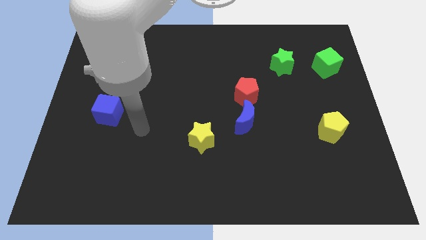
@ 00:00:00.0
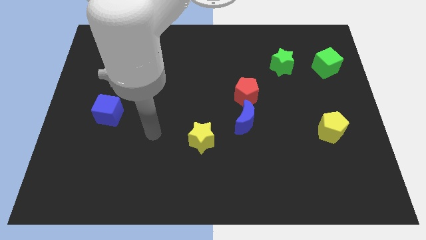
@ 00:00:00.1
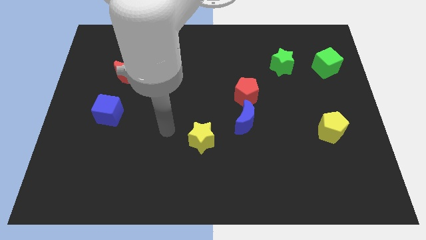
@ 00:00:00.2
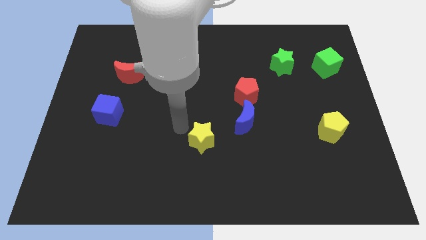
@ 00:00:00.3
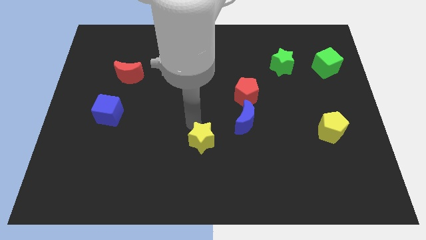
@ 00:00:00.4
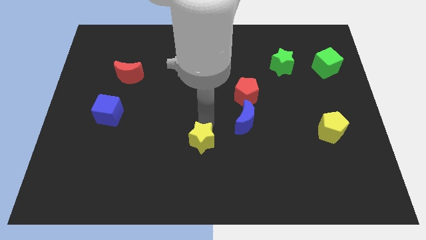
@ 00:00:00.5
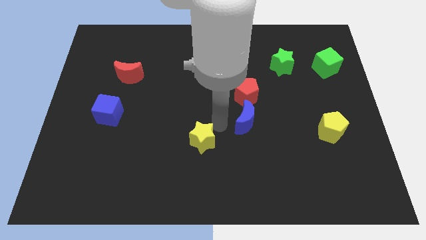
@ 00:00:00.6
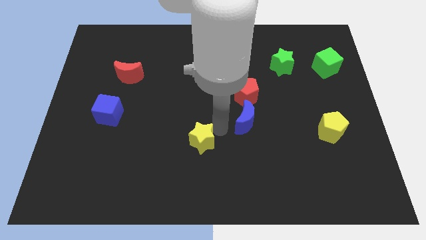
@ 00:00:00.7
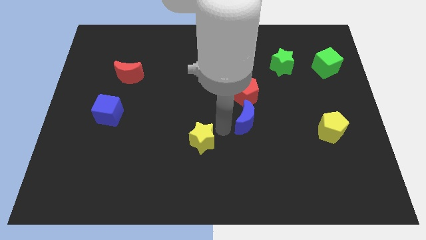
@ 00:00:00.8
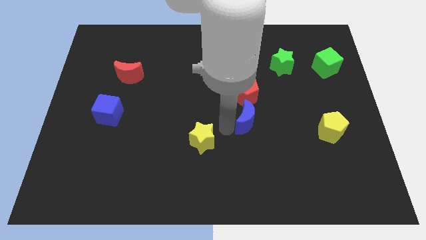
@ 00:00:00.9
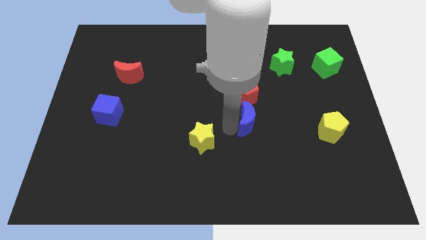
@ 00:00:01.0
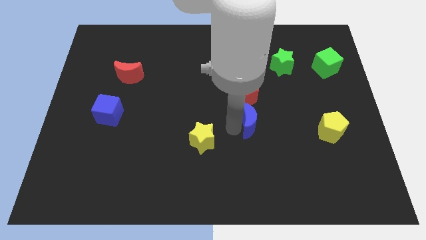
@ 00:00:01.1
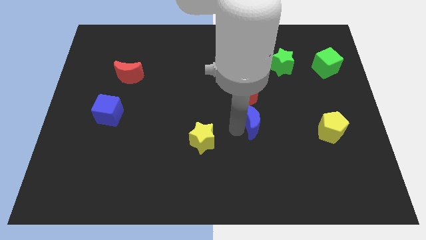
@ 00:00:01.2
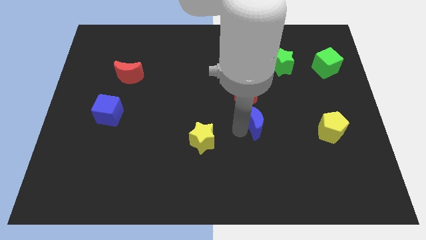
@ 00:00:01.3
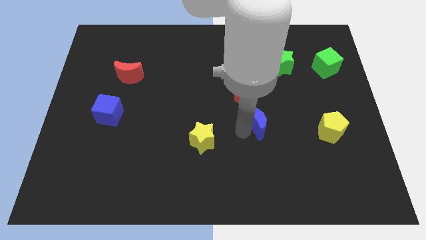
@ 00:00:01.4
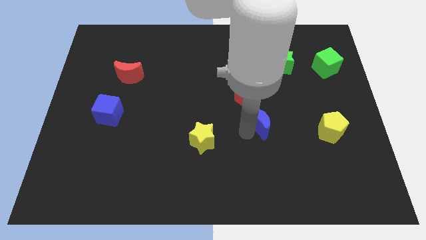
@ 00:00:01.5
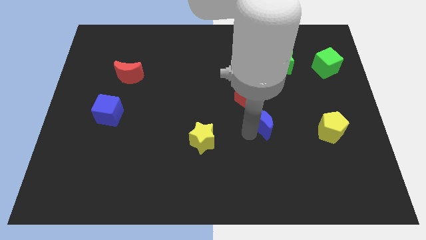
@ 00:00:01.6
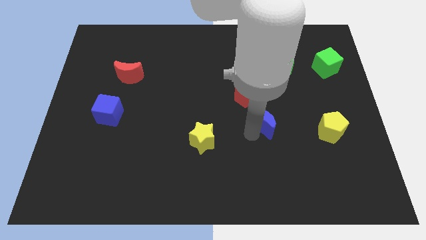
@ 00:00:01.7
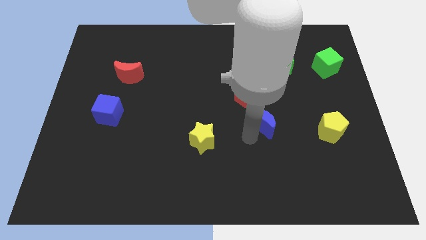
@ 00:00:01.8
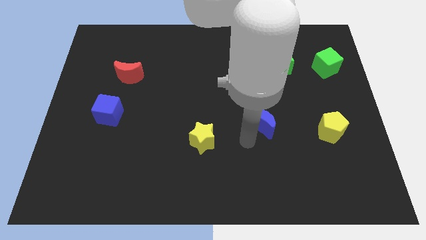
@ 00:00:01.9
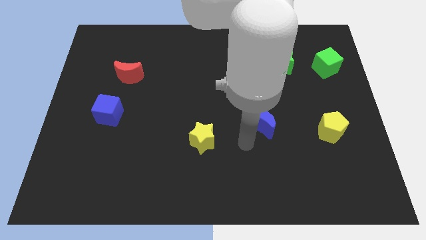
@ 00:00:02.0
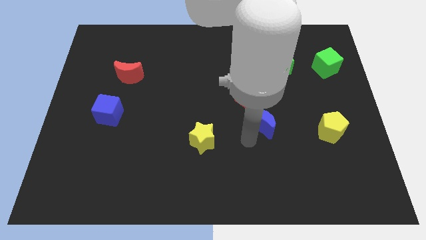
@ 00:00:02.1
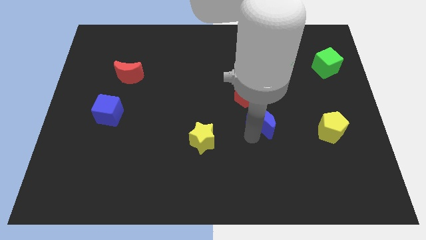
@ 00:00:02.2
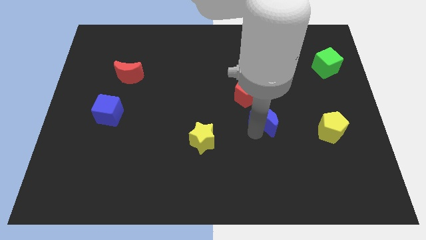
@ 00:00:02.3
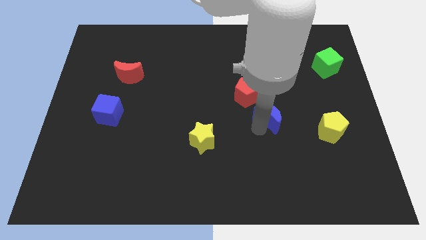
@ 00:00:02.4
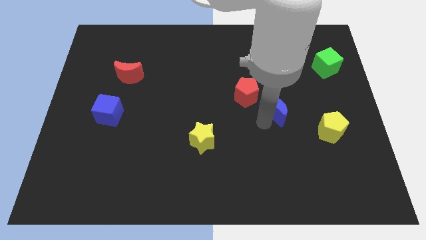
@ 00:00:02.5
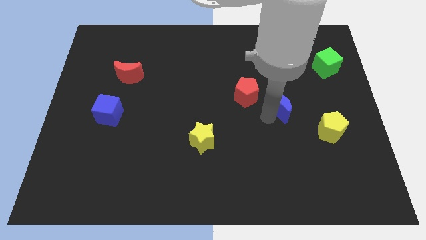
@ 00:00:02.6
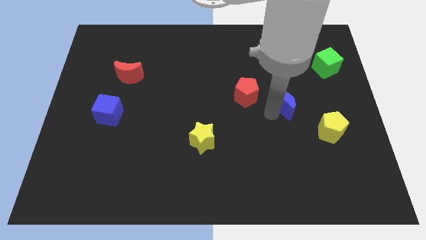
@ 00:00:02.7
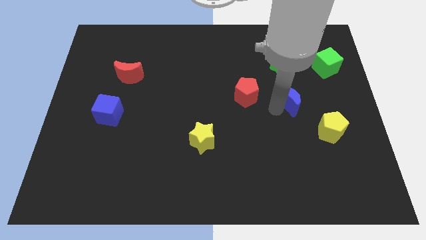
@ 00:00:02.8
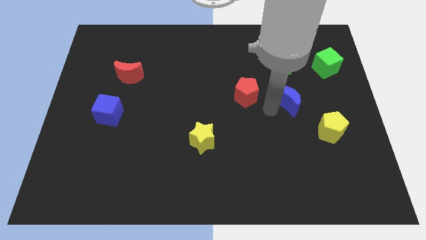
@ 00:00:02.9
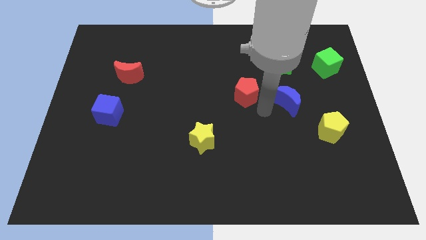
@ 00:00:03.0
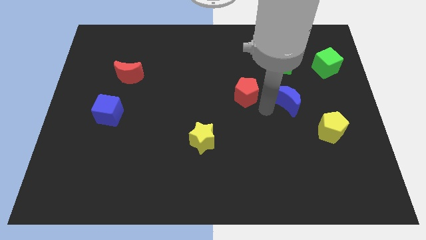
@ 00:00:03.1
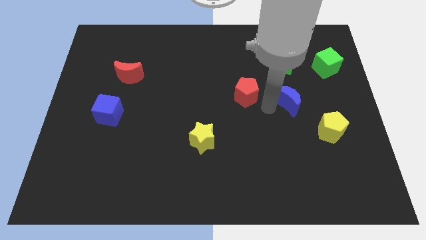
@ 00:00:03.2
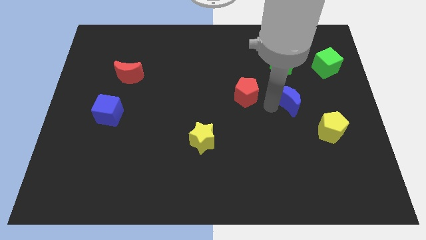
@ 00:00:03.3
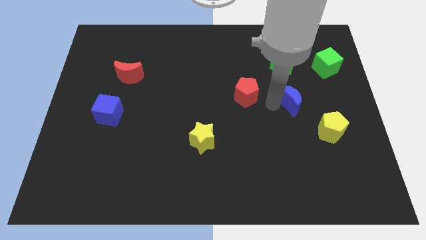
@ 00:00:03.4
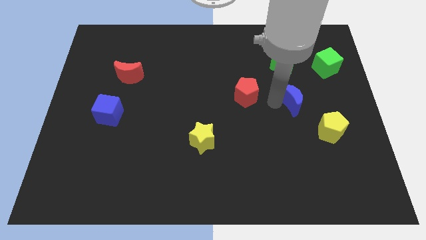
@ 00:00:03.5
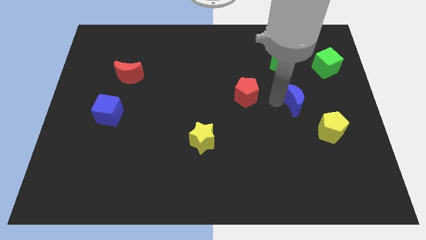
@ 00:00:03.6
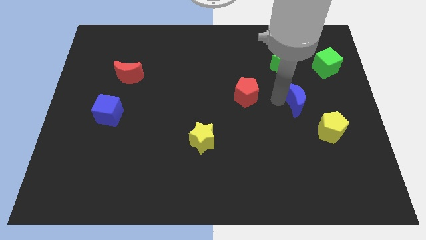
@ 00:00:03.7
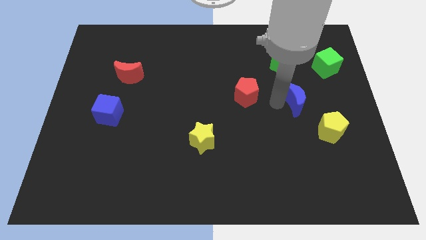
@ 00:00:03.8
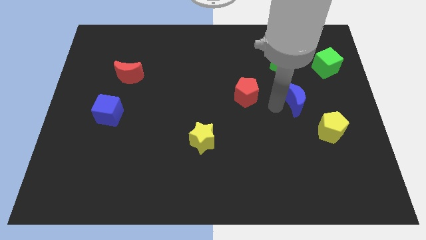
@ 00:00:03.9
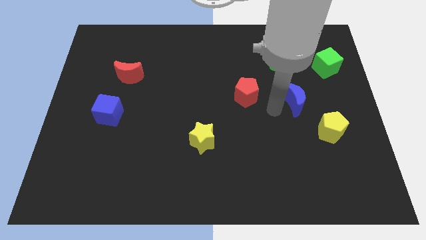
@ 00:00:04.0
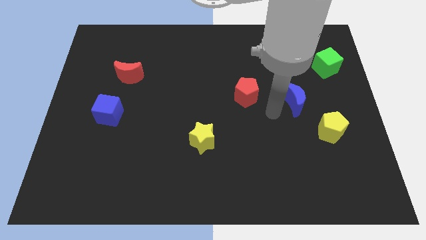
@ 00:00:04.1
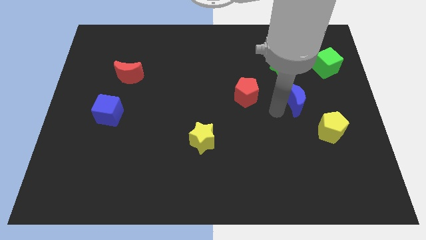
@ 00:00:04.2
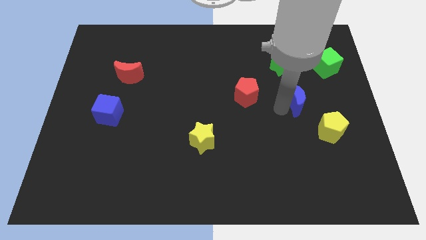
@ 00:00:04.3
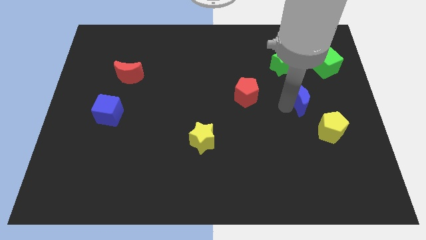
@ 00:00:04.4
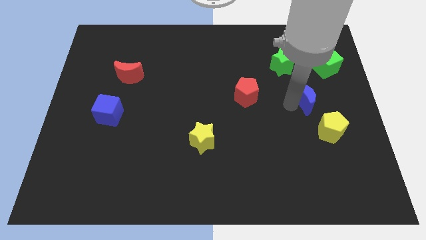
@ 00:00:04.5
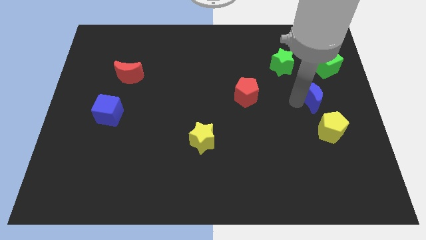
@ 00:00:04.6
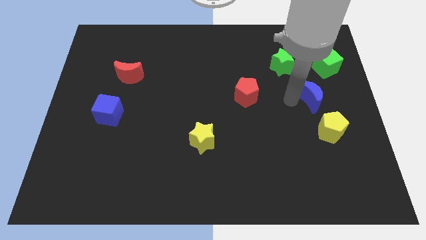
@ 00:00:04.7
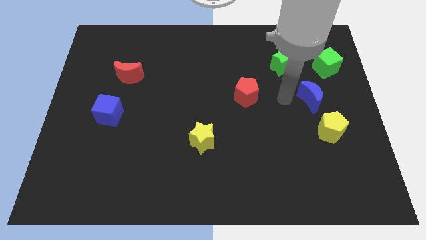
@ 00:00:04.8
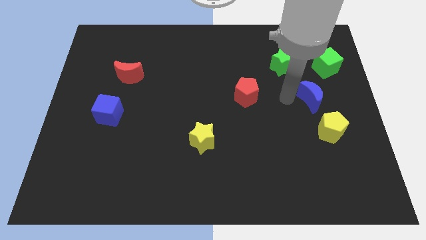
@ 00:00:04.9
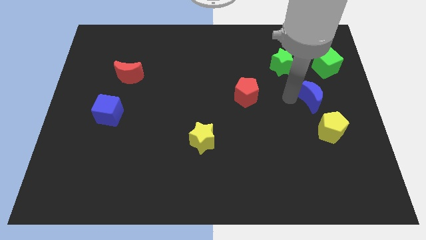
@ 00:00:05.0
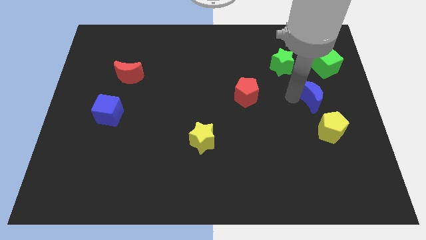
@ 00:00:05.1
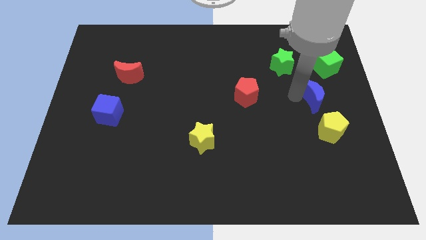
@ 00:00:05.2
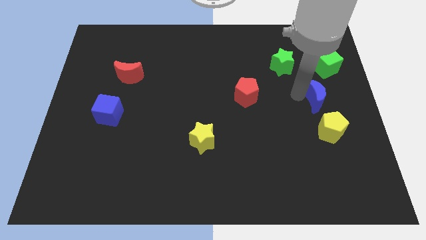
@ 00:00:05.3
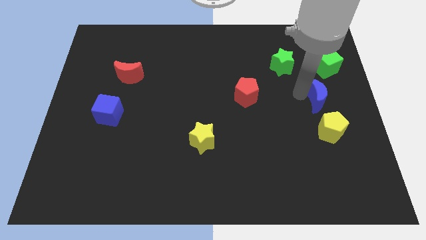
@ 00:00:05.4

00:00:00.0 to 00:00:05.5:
put the blue moon to the right side

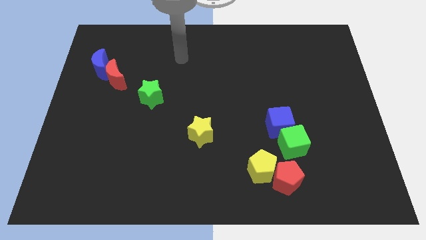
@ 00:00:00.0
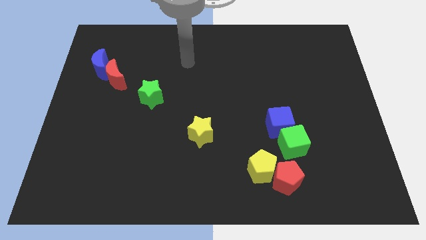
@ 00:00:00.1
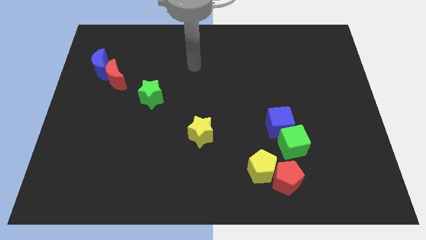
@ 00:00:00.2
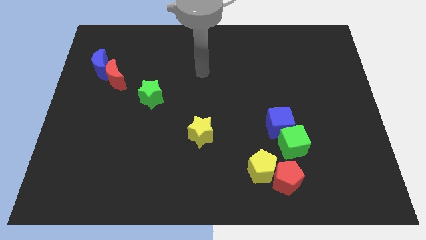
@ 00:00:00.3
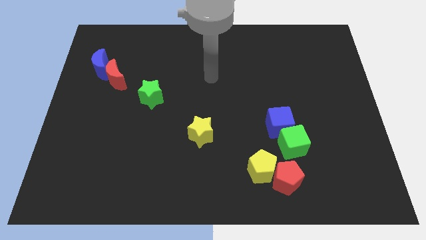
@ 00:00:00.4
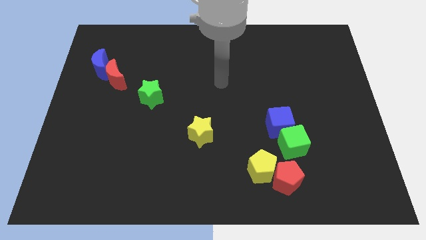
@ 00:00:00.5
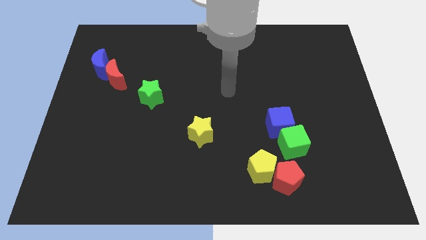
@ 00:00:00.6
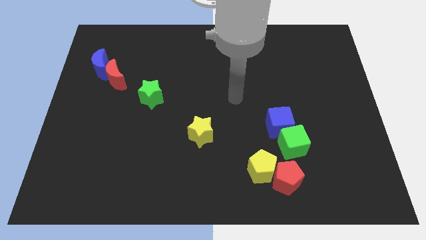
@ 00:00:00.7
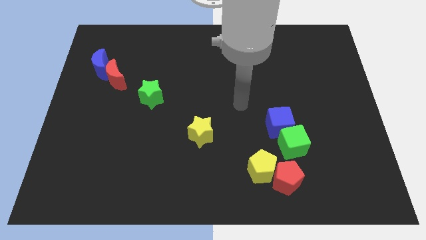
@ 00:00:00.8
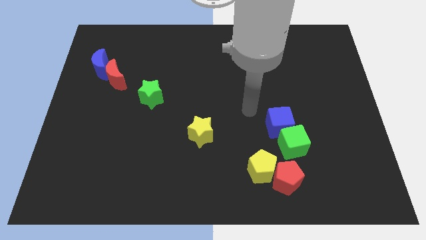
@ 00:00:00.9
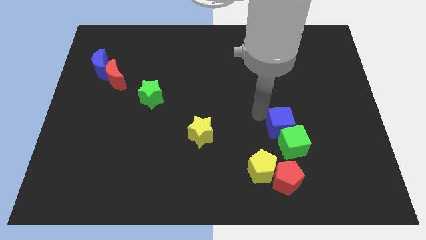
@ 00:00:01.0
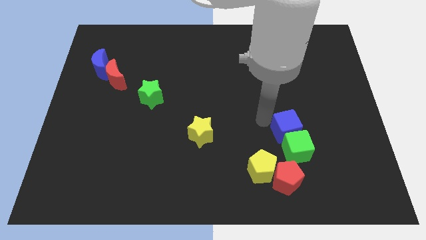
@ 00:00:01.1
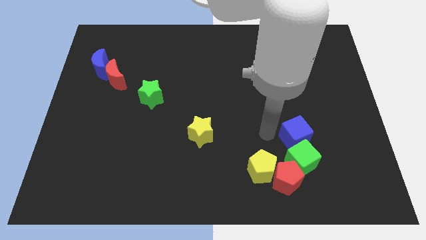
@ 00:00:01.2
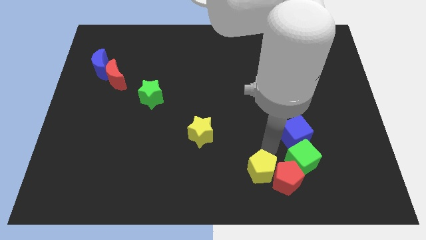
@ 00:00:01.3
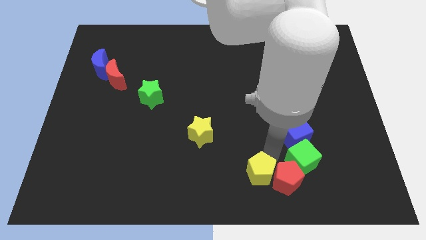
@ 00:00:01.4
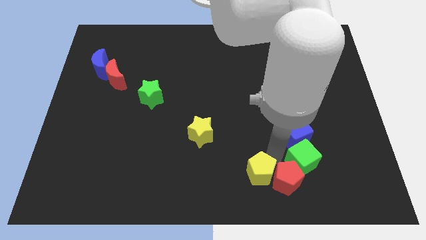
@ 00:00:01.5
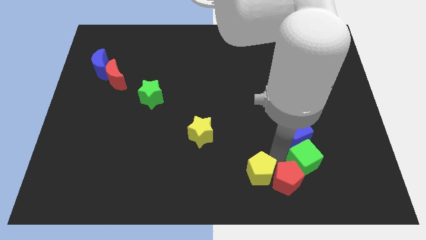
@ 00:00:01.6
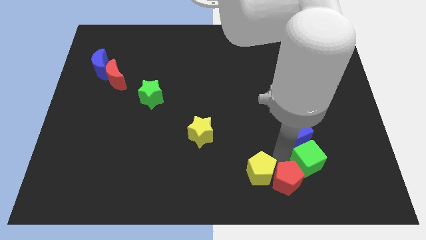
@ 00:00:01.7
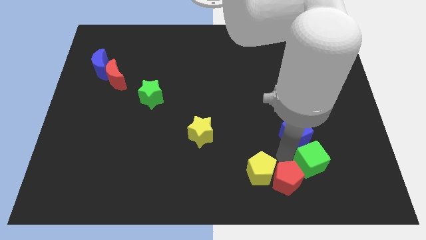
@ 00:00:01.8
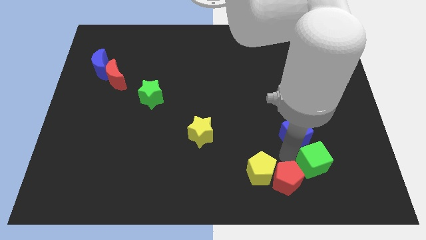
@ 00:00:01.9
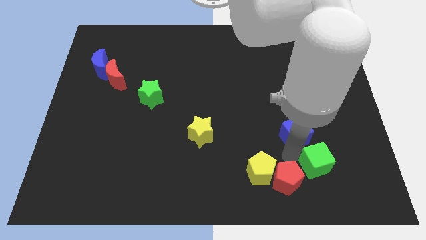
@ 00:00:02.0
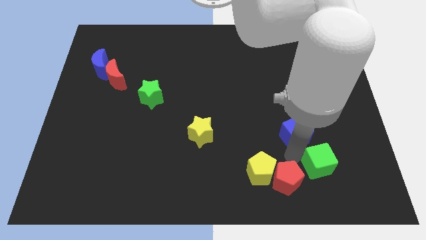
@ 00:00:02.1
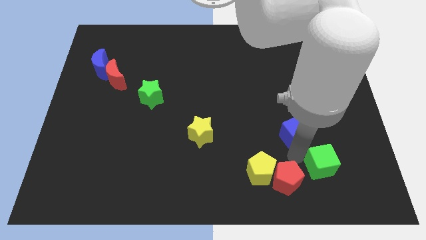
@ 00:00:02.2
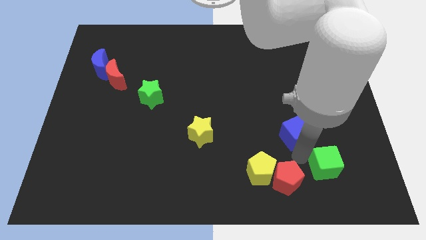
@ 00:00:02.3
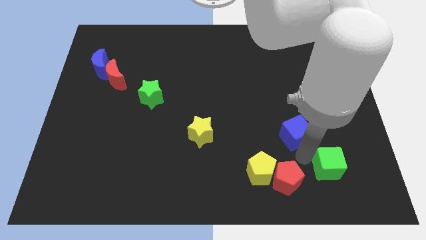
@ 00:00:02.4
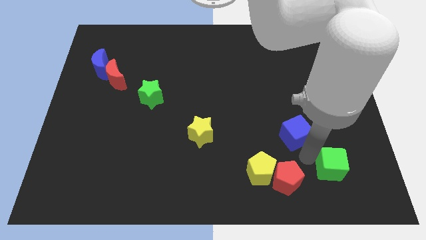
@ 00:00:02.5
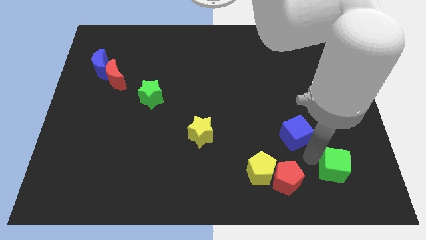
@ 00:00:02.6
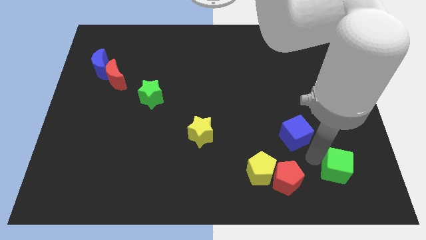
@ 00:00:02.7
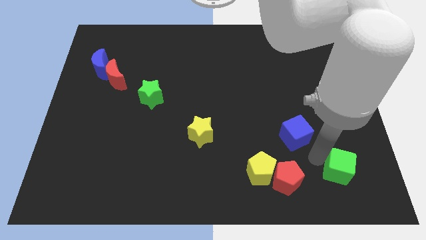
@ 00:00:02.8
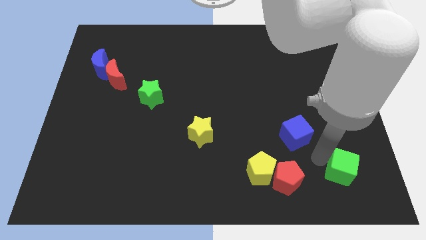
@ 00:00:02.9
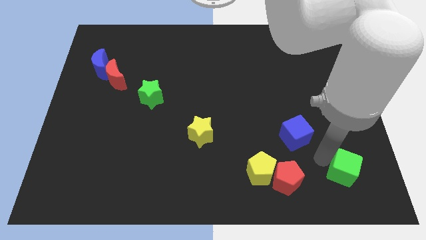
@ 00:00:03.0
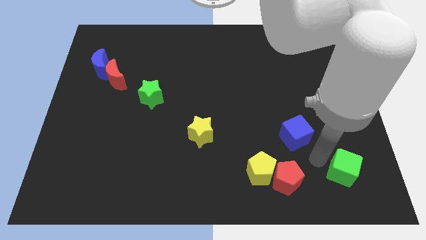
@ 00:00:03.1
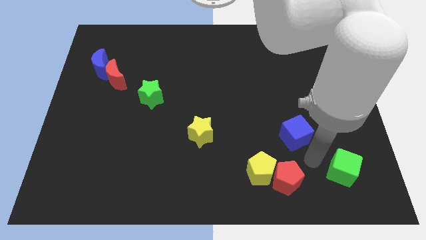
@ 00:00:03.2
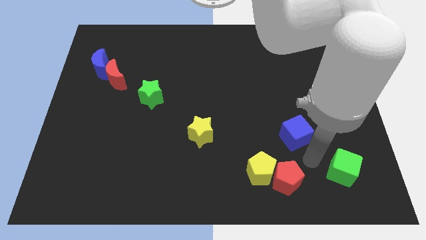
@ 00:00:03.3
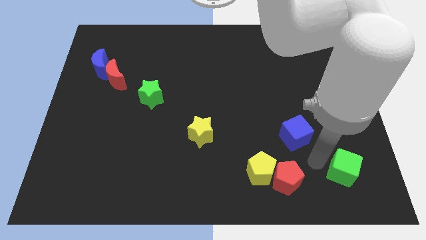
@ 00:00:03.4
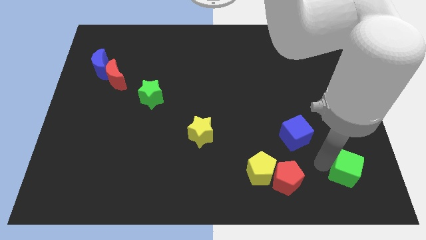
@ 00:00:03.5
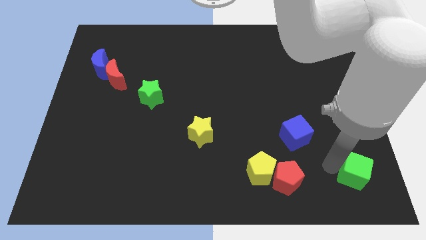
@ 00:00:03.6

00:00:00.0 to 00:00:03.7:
move the green cube to the bottom right of the board
